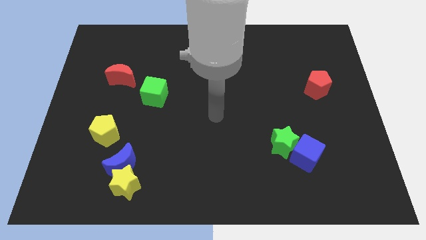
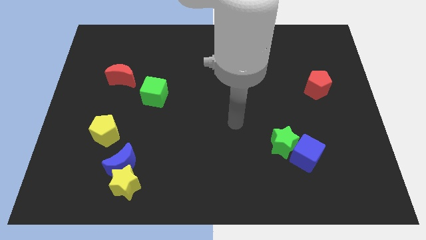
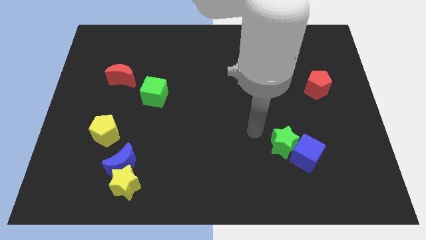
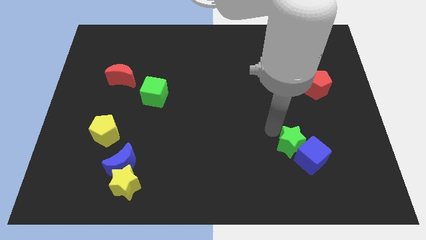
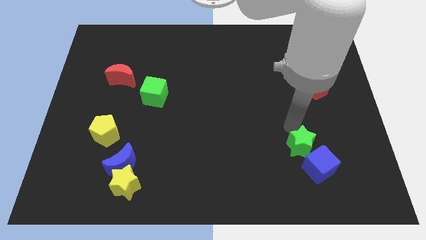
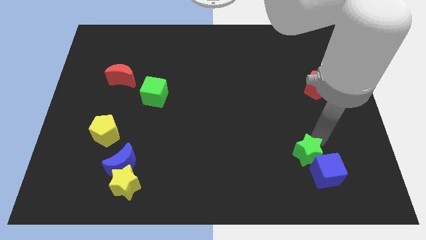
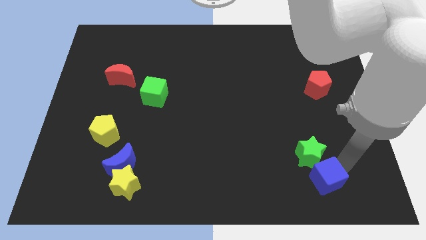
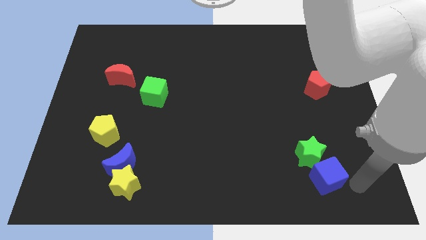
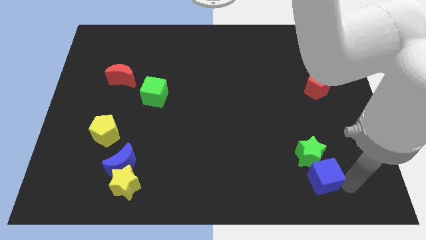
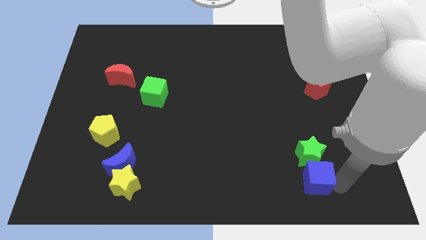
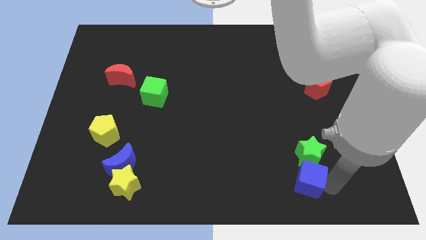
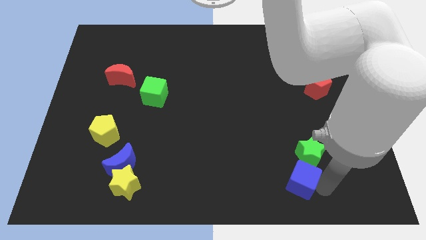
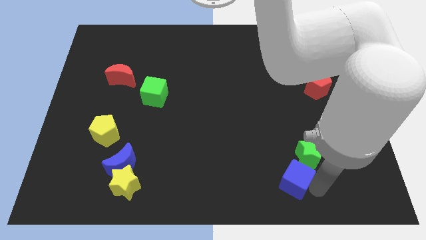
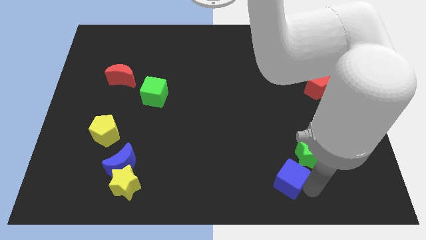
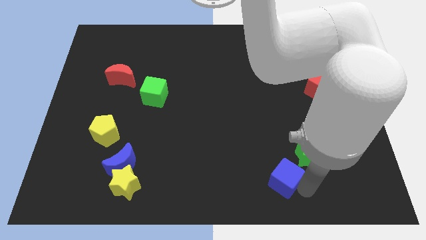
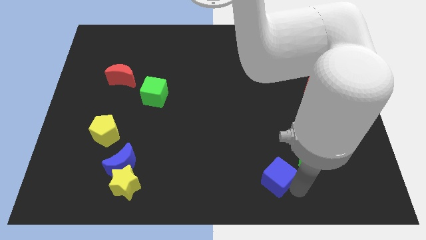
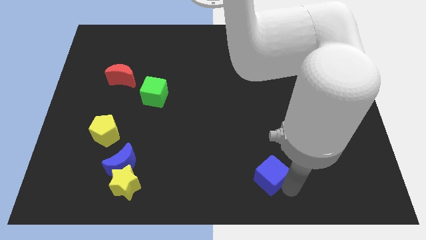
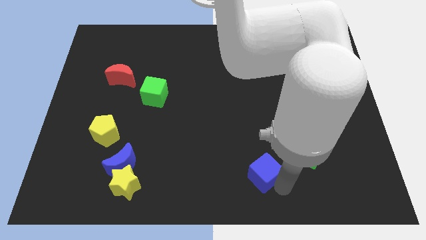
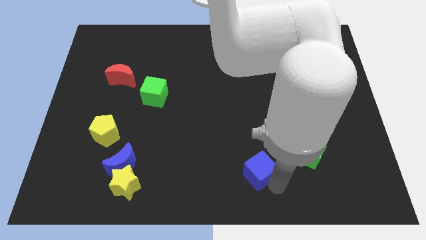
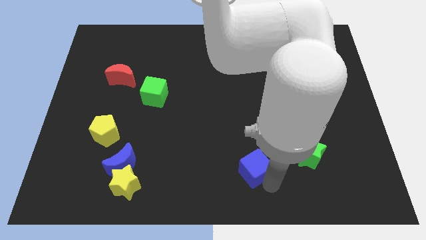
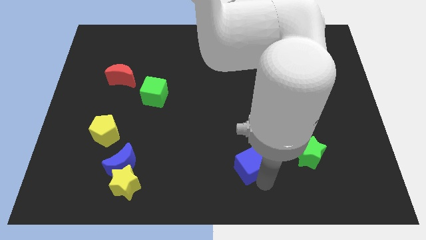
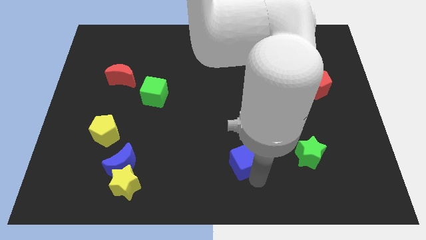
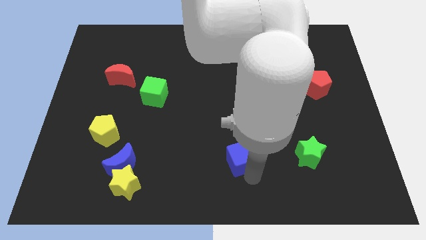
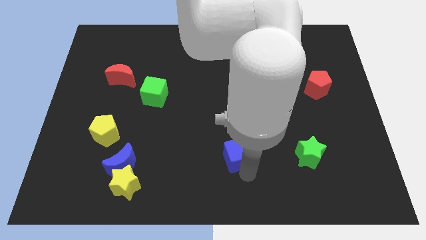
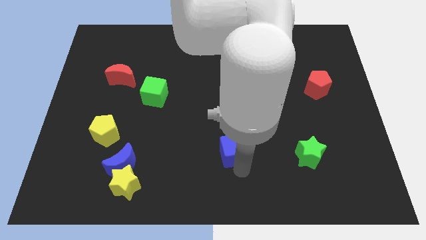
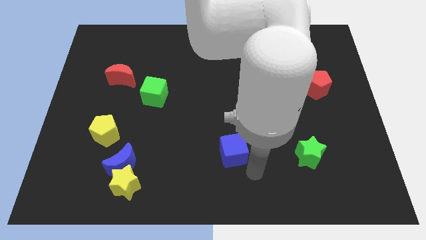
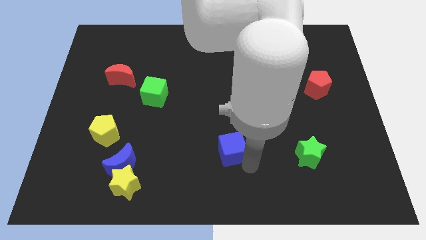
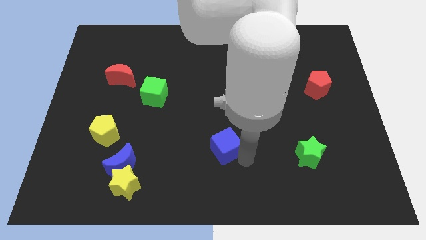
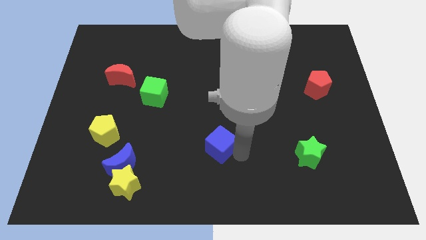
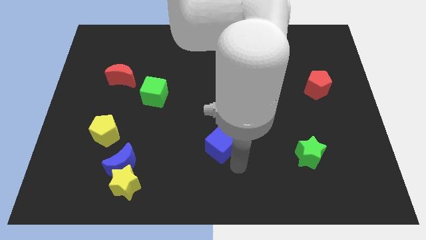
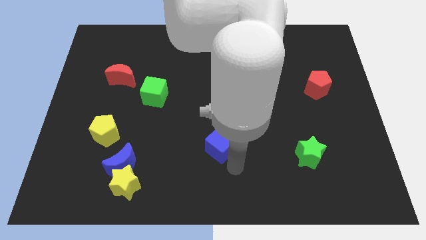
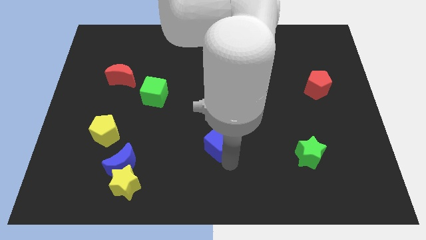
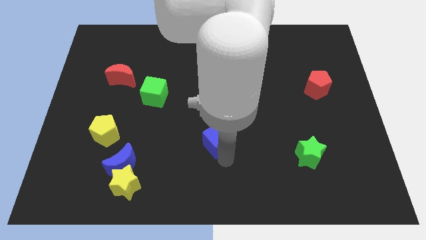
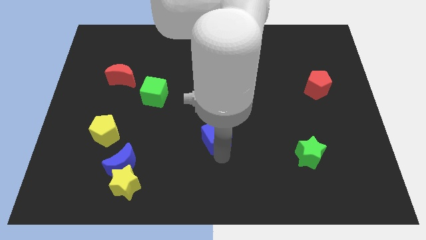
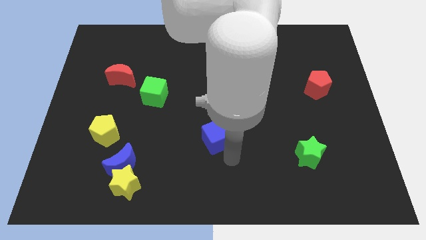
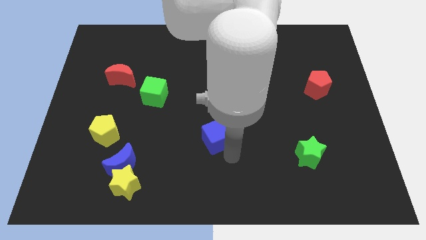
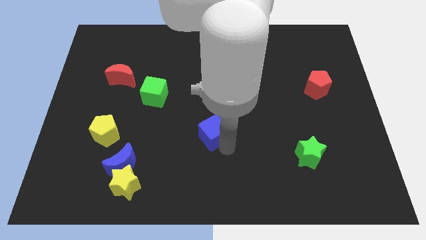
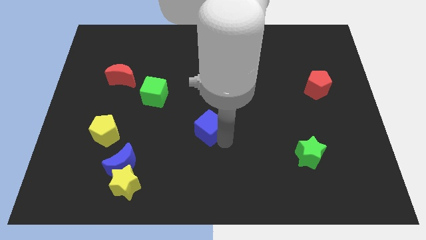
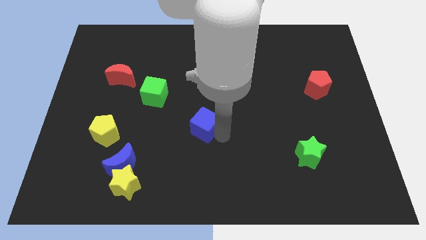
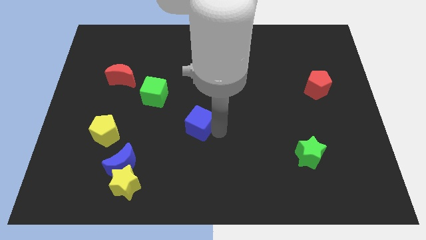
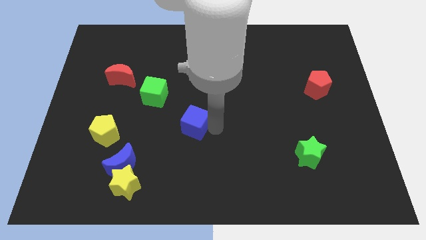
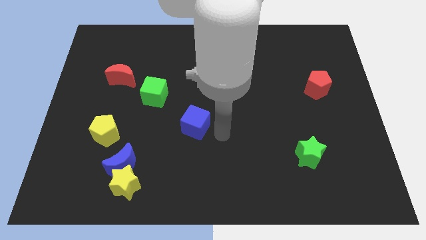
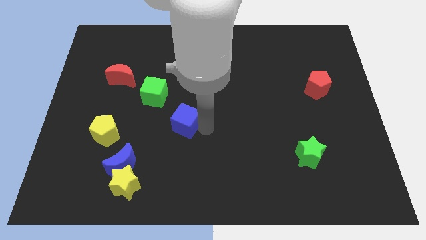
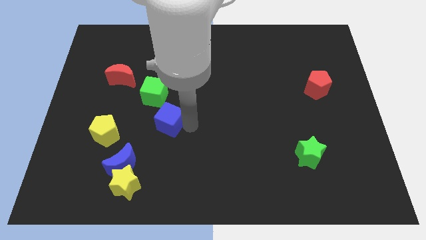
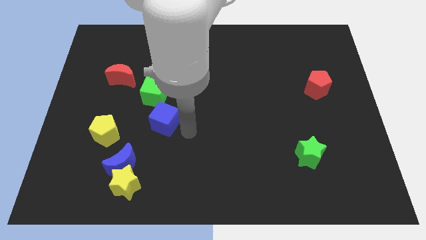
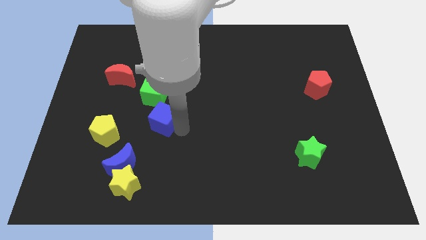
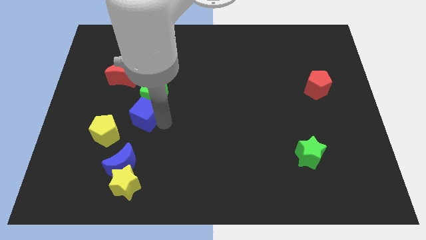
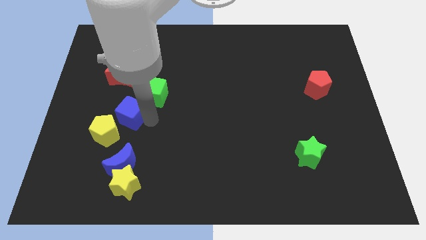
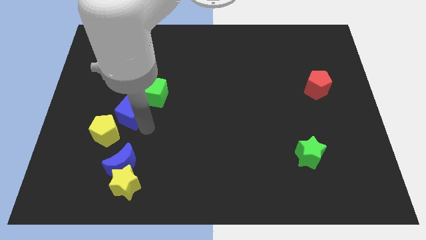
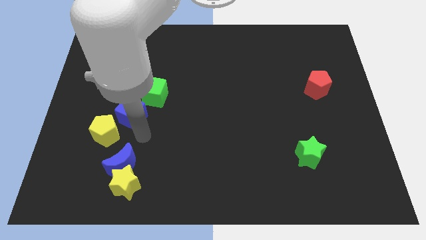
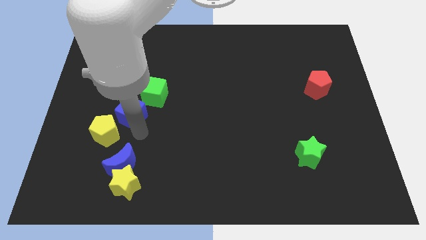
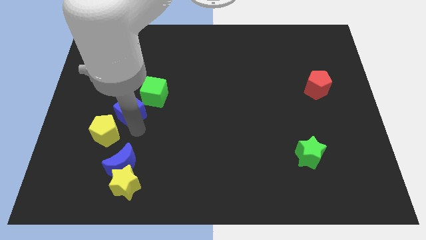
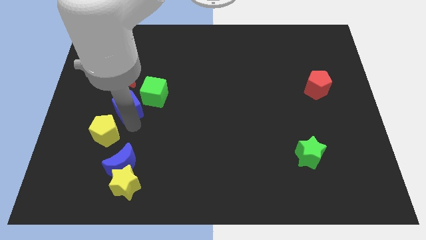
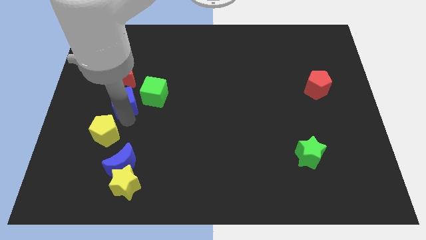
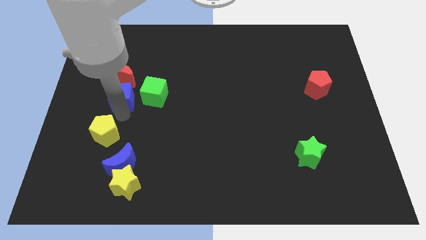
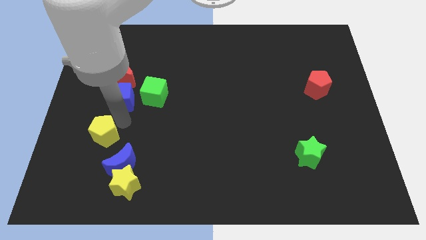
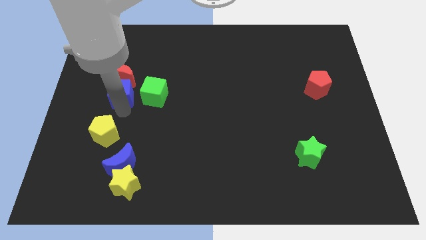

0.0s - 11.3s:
push the blue cube next to the red moon

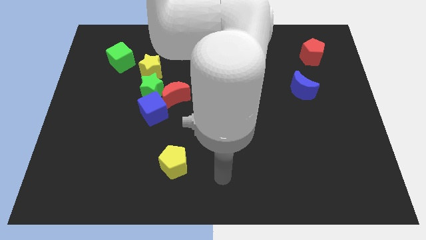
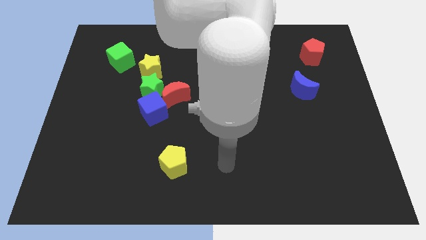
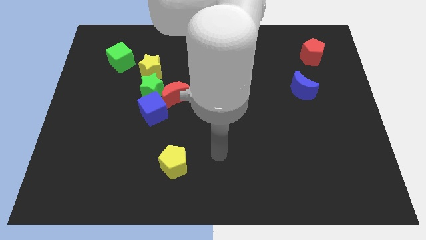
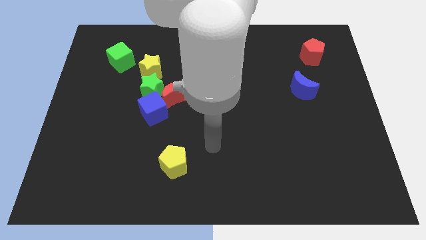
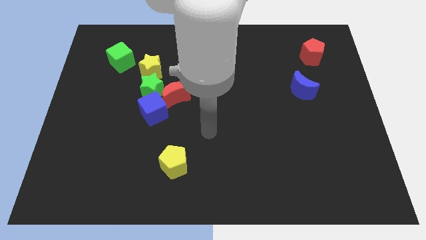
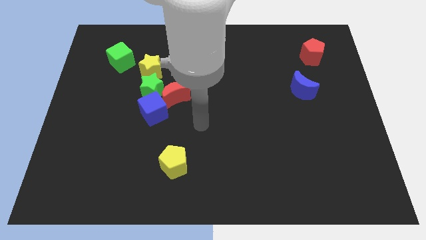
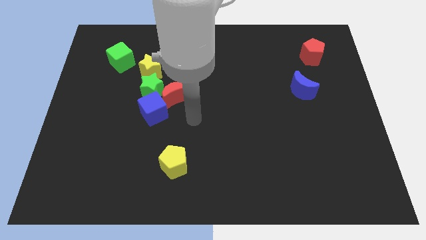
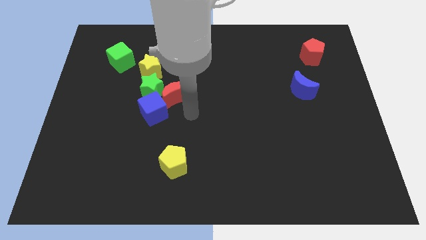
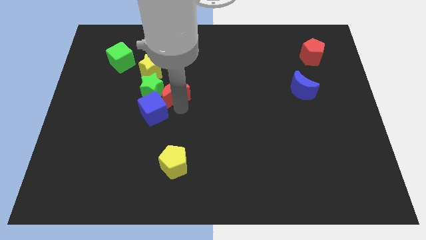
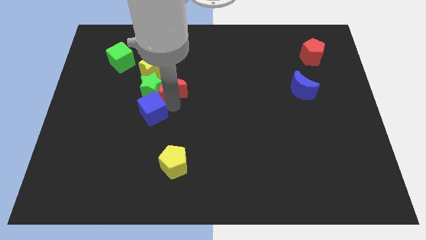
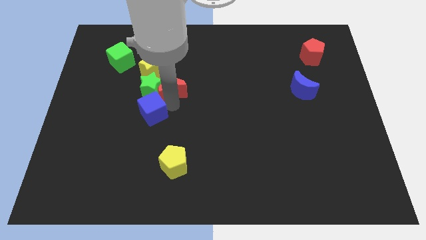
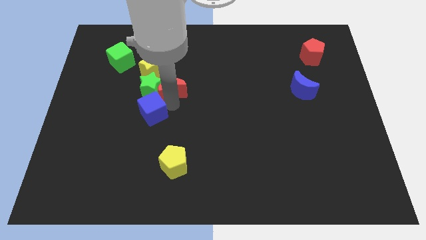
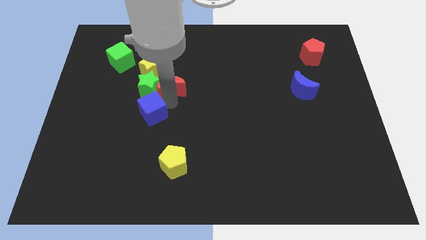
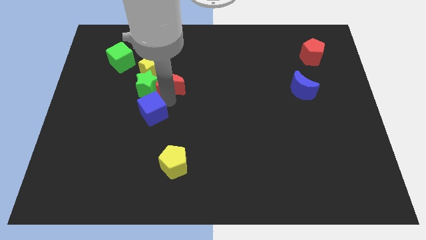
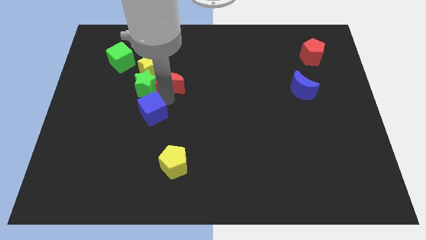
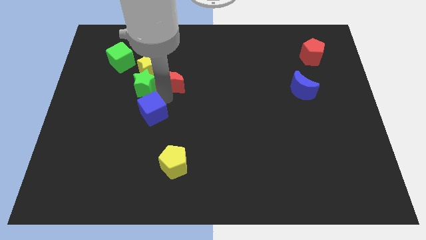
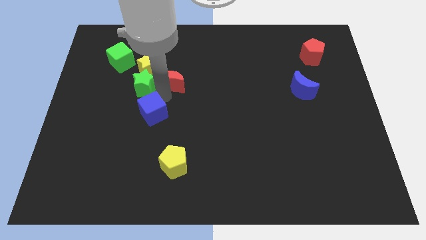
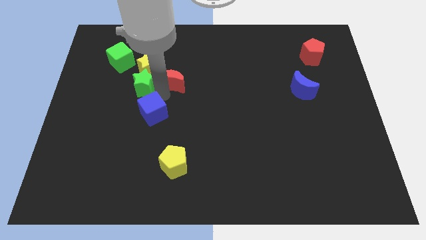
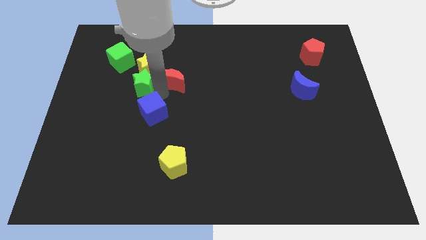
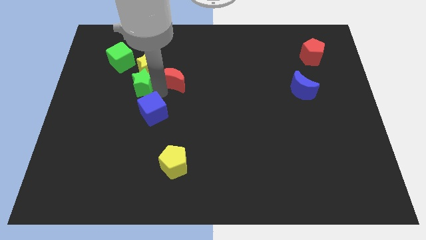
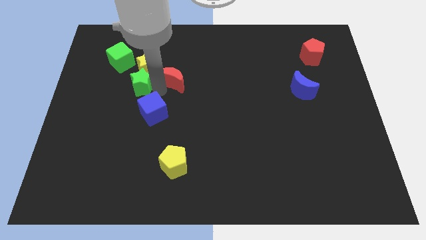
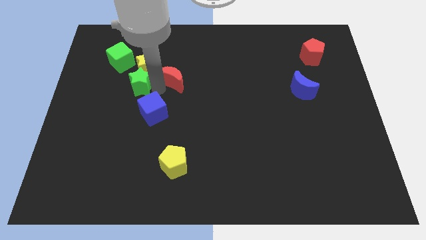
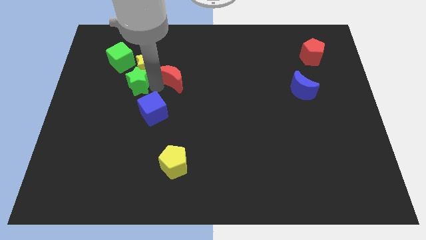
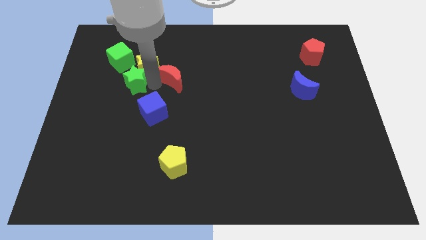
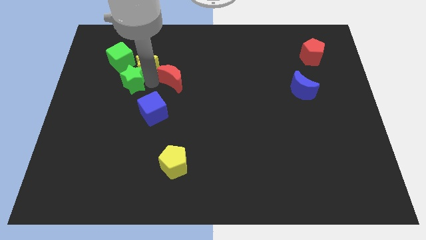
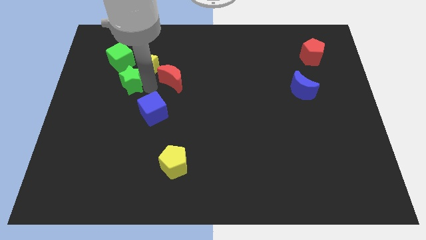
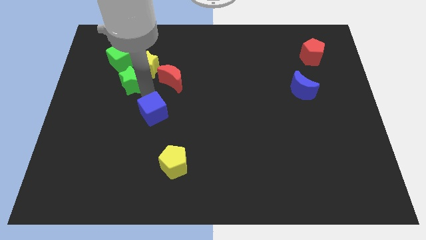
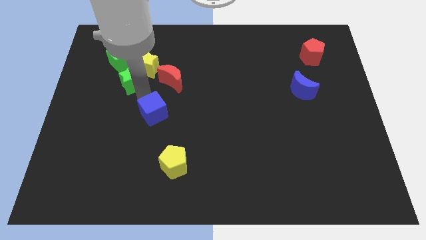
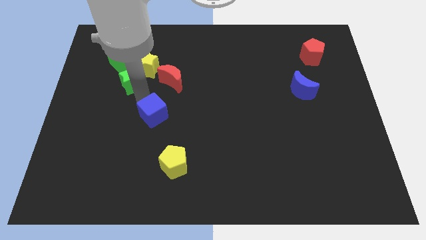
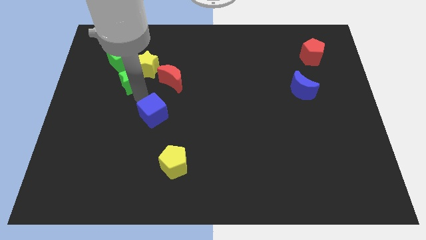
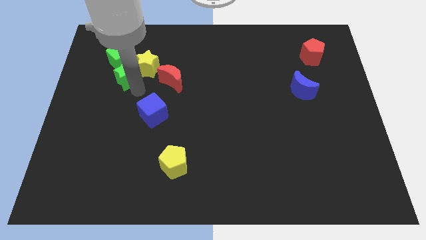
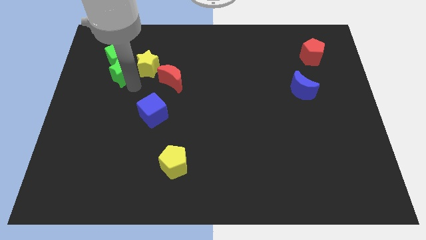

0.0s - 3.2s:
put the green star to the green cube
